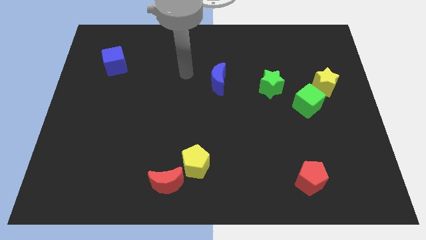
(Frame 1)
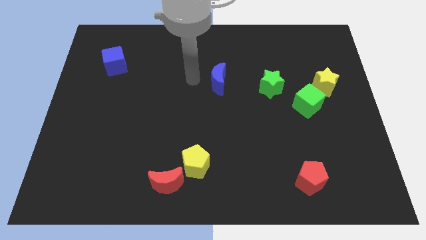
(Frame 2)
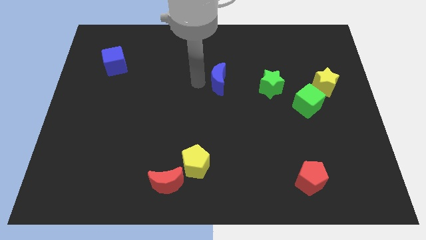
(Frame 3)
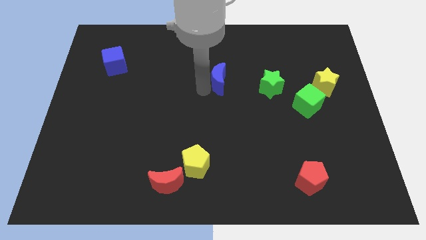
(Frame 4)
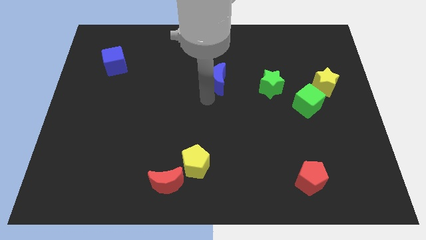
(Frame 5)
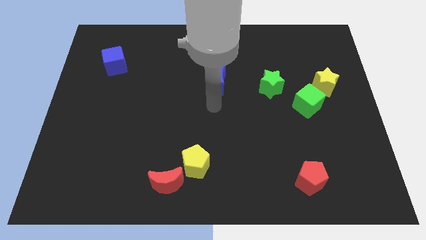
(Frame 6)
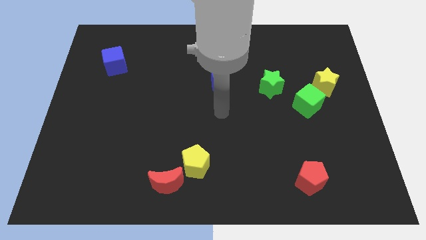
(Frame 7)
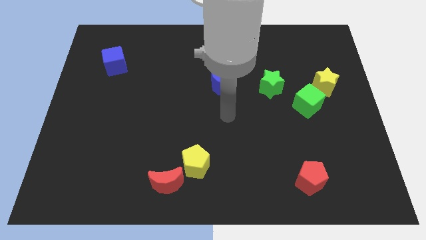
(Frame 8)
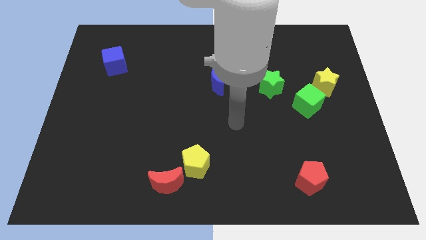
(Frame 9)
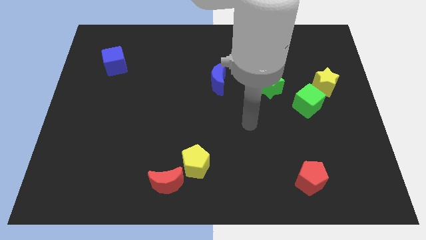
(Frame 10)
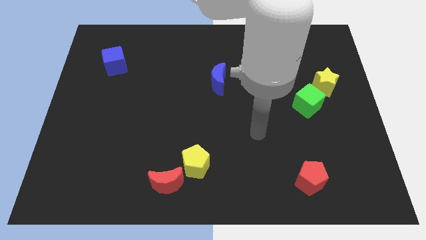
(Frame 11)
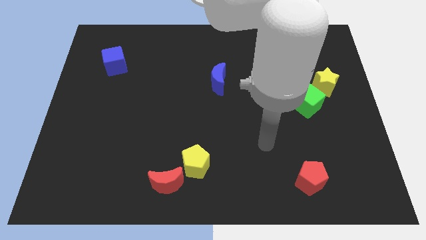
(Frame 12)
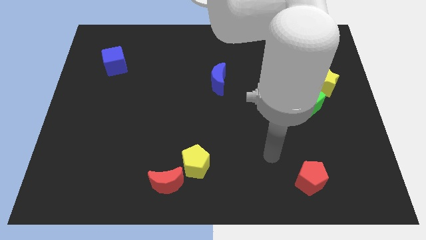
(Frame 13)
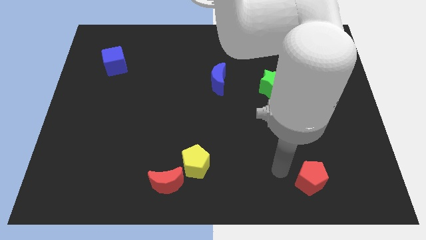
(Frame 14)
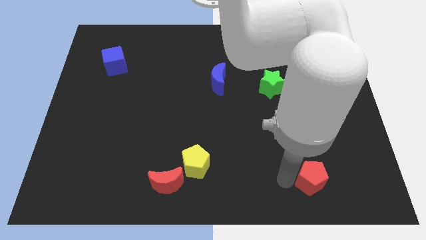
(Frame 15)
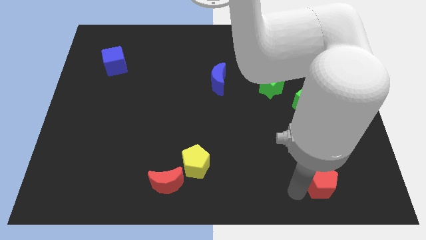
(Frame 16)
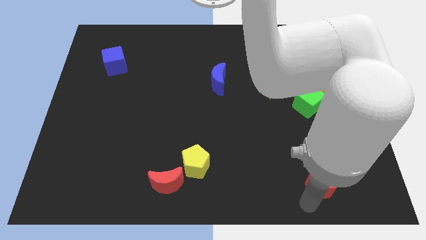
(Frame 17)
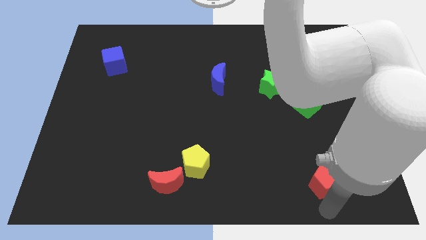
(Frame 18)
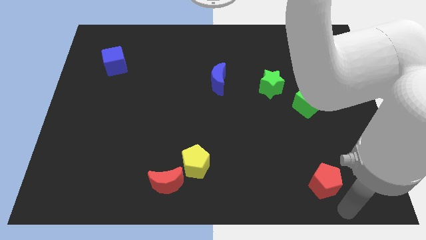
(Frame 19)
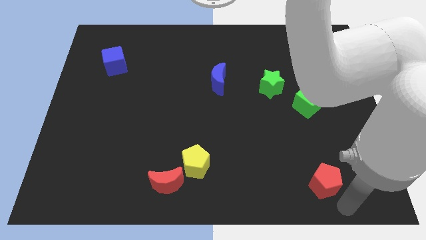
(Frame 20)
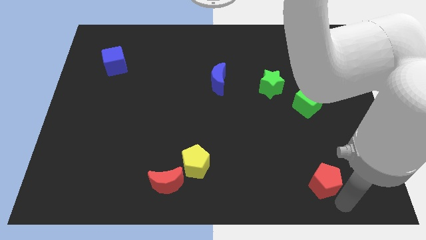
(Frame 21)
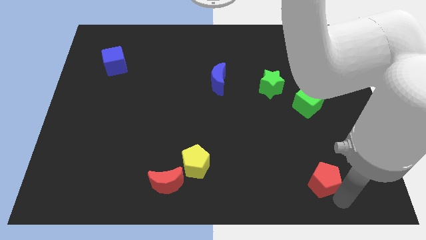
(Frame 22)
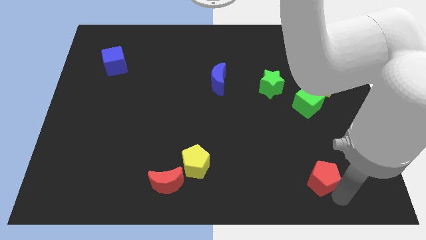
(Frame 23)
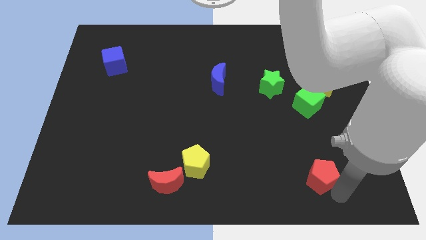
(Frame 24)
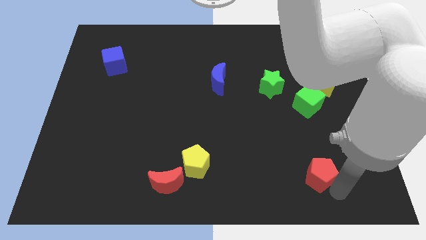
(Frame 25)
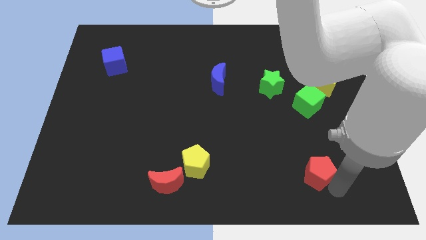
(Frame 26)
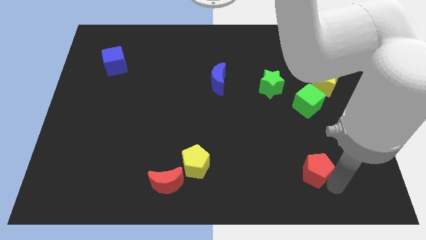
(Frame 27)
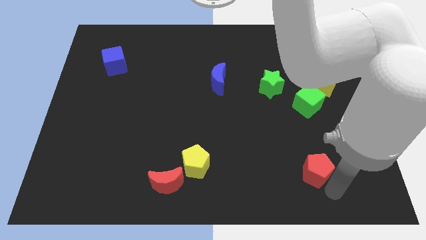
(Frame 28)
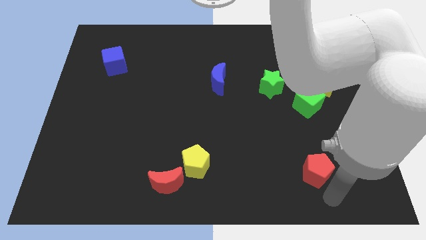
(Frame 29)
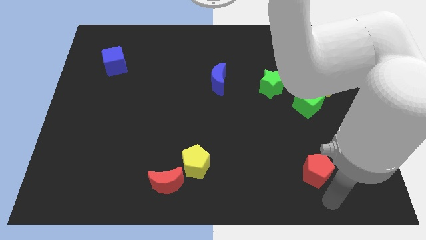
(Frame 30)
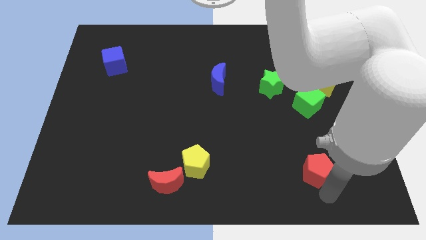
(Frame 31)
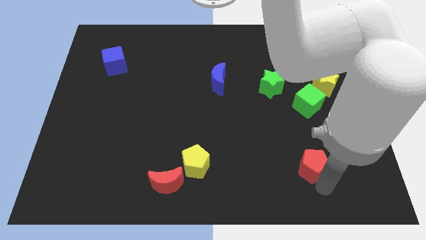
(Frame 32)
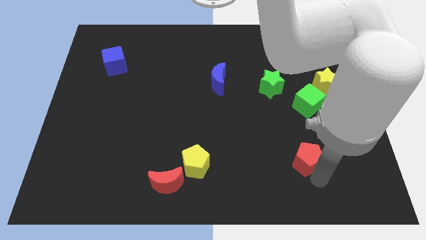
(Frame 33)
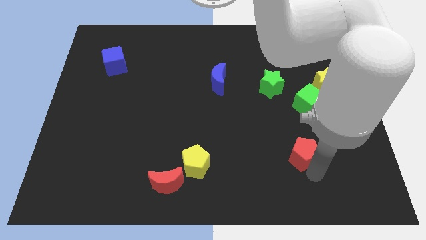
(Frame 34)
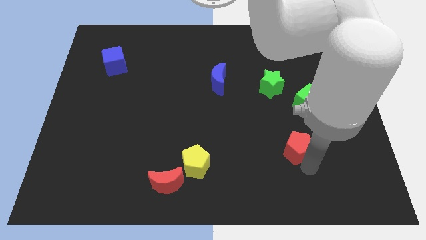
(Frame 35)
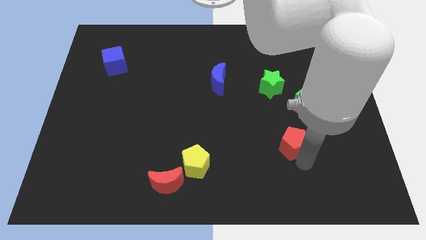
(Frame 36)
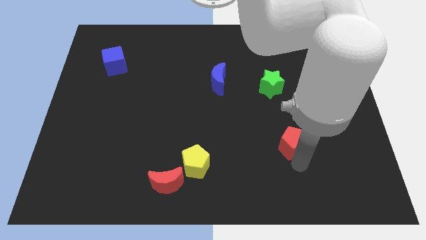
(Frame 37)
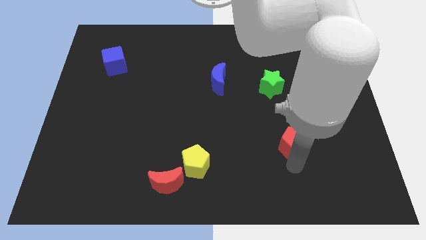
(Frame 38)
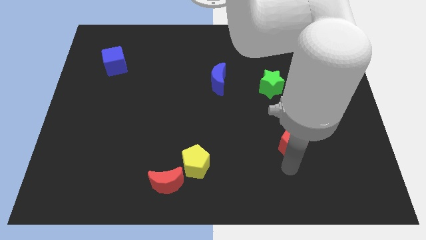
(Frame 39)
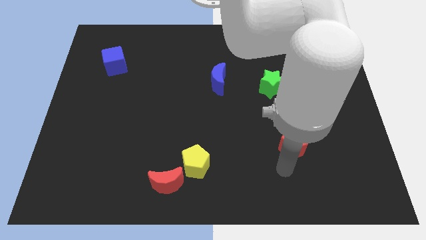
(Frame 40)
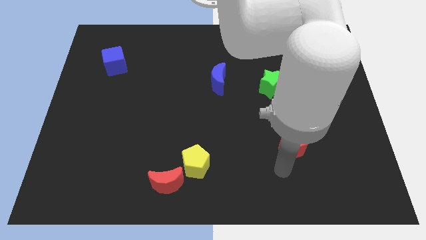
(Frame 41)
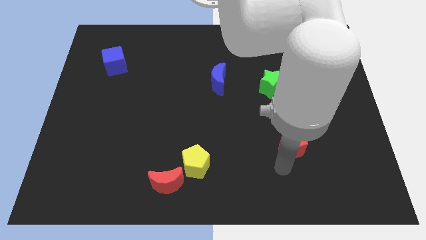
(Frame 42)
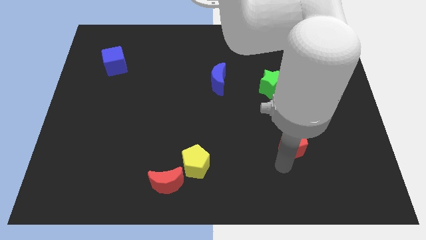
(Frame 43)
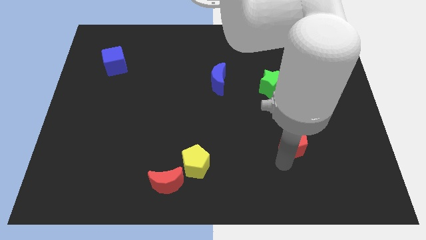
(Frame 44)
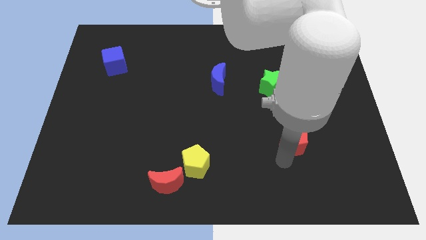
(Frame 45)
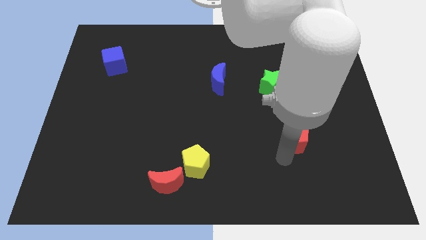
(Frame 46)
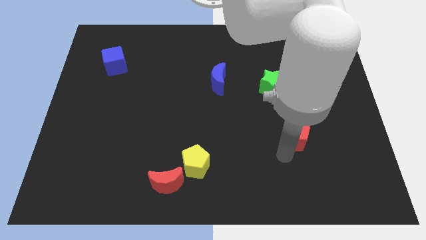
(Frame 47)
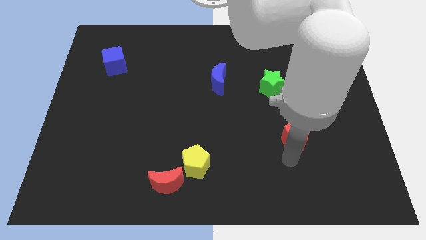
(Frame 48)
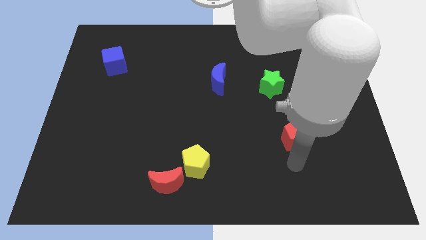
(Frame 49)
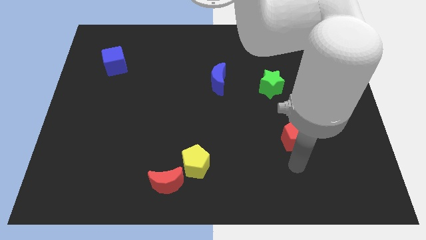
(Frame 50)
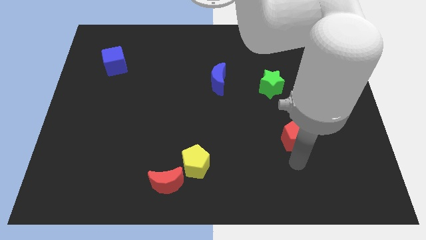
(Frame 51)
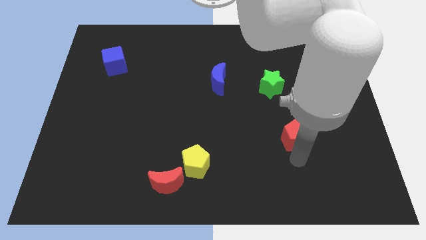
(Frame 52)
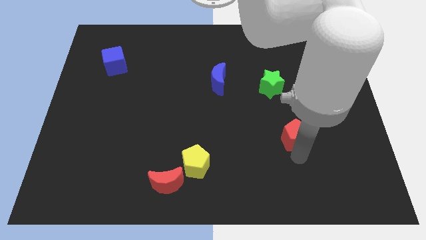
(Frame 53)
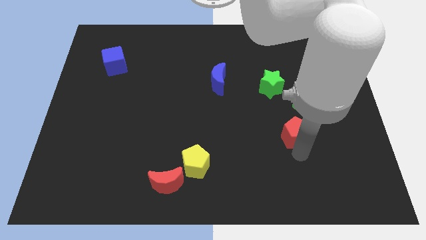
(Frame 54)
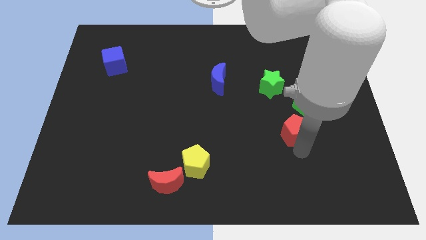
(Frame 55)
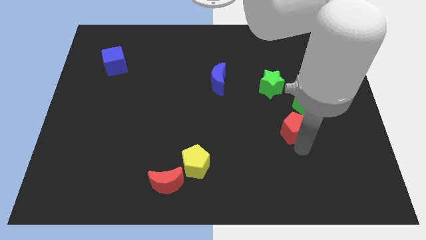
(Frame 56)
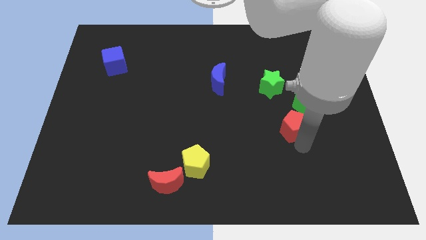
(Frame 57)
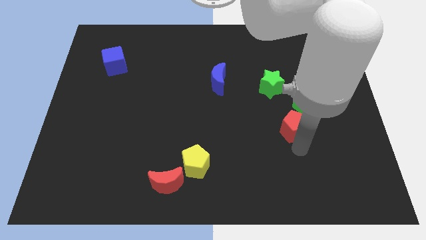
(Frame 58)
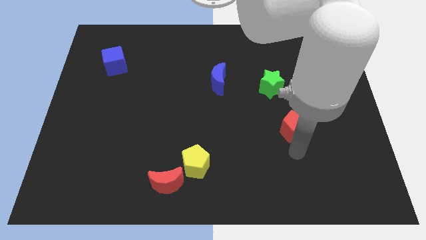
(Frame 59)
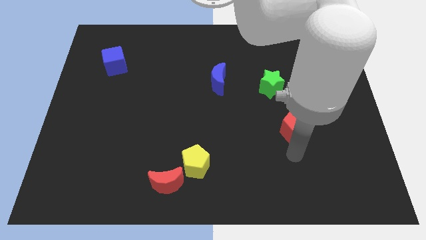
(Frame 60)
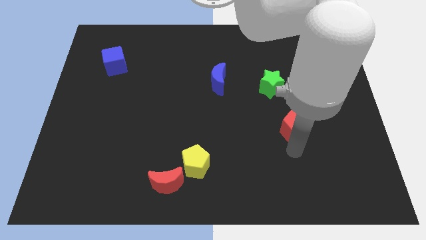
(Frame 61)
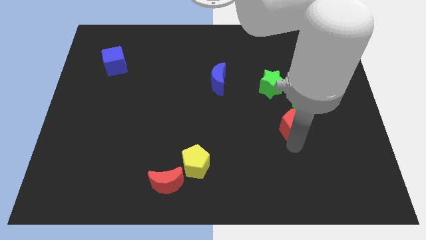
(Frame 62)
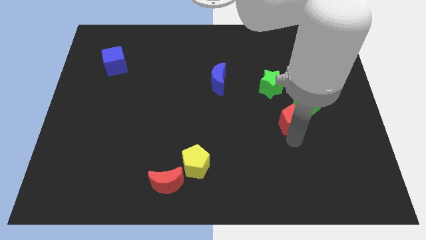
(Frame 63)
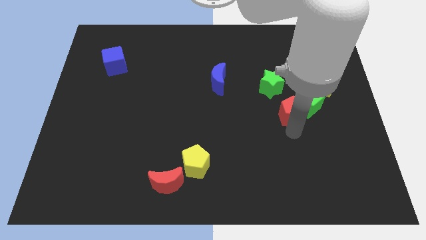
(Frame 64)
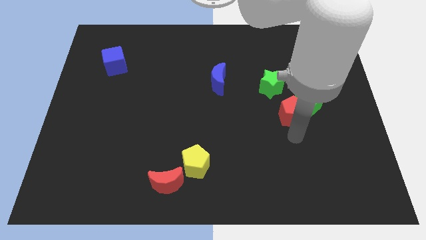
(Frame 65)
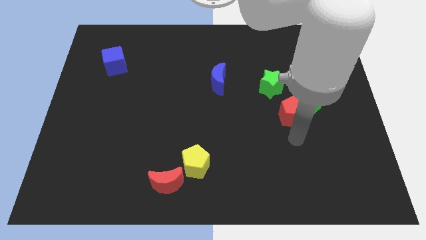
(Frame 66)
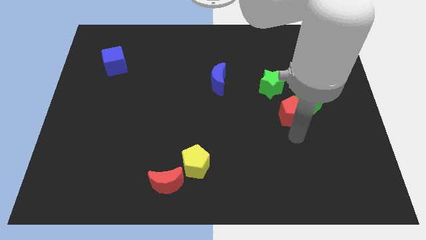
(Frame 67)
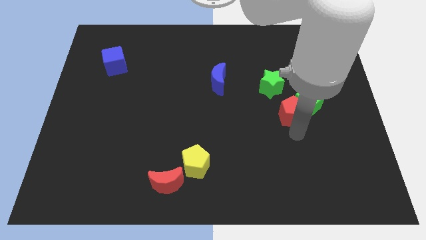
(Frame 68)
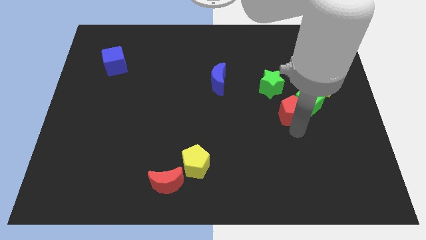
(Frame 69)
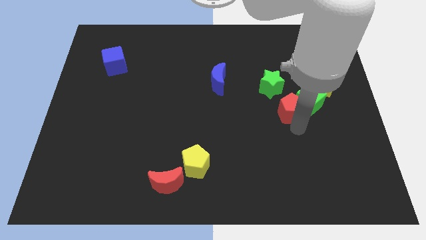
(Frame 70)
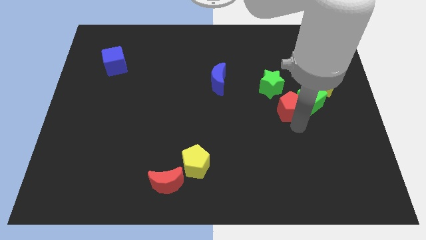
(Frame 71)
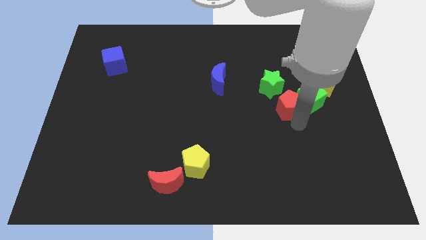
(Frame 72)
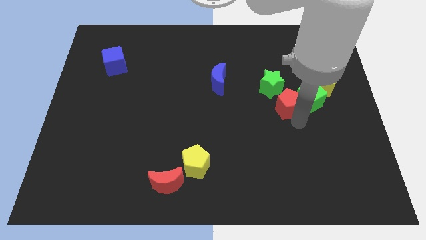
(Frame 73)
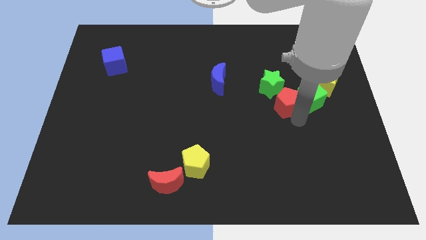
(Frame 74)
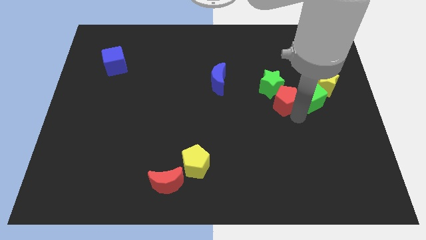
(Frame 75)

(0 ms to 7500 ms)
slide the red pentagon up

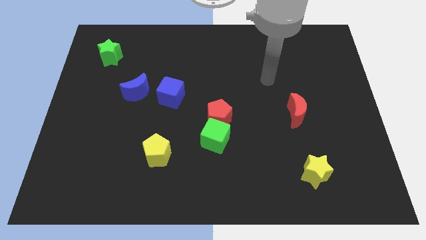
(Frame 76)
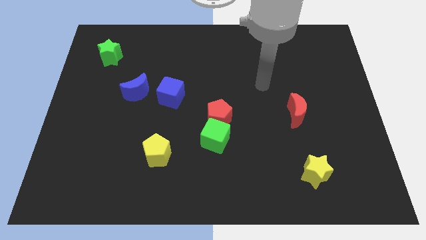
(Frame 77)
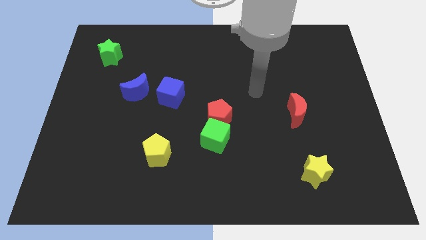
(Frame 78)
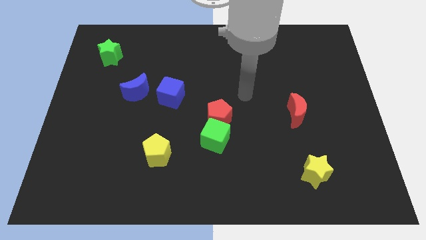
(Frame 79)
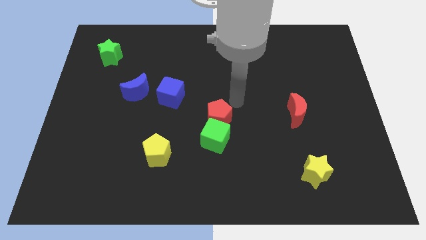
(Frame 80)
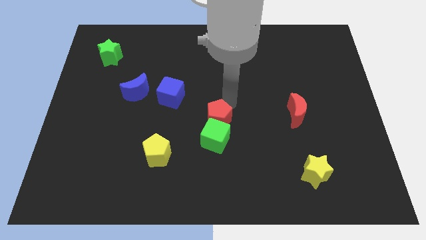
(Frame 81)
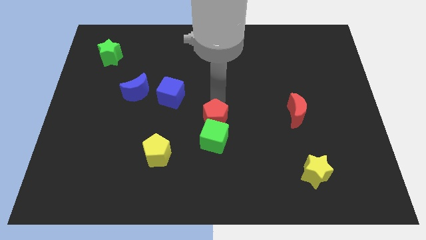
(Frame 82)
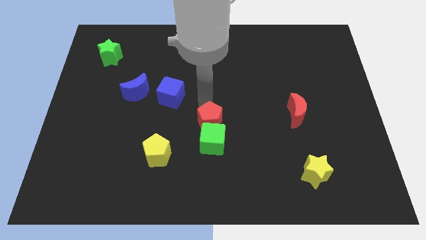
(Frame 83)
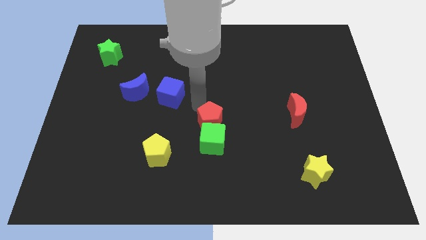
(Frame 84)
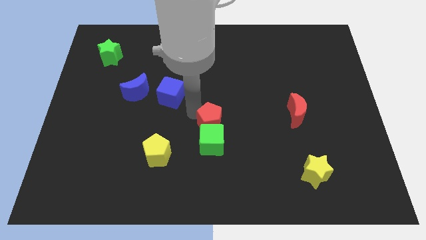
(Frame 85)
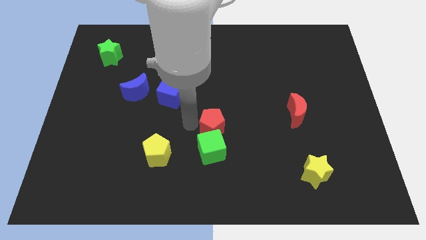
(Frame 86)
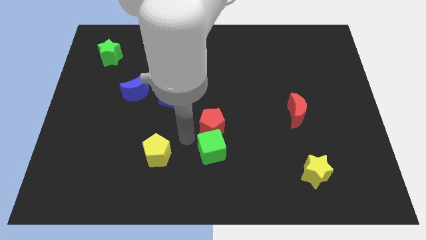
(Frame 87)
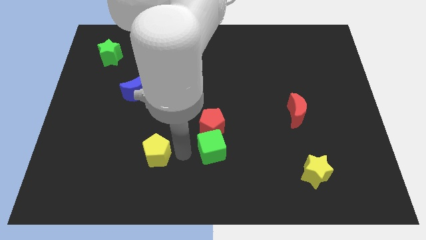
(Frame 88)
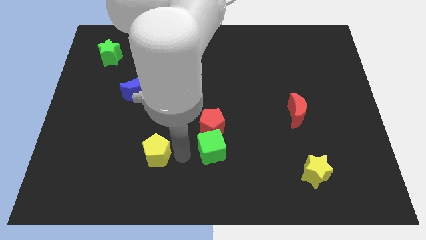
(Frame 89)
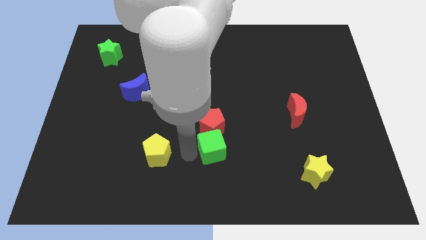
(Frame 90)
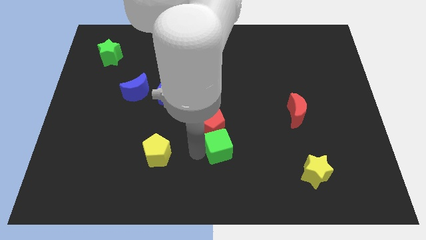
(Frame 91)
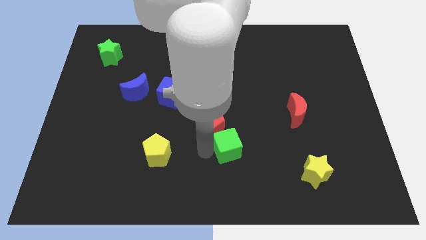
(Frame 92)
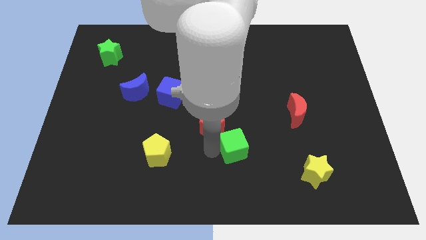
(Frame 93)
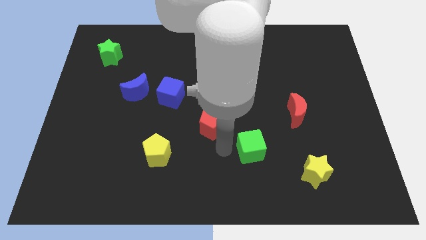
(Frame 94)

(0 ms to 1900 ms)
slide the green cube slightly right
